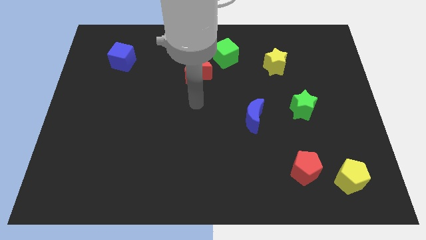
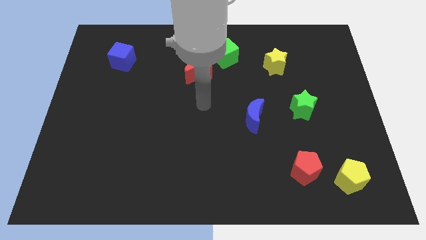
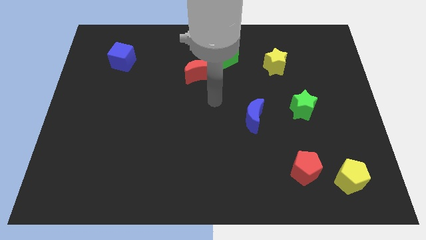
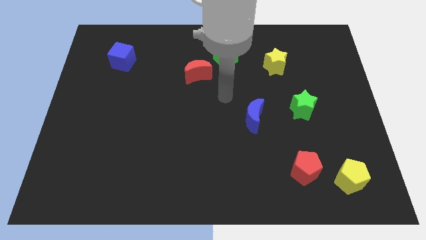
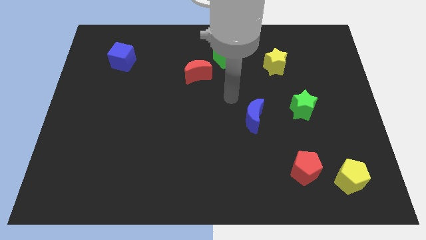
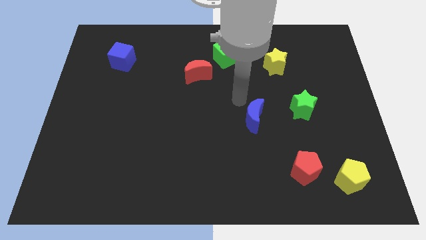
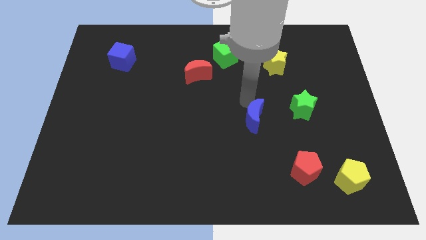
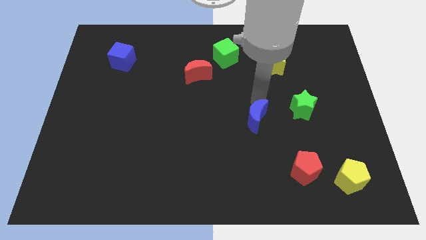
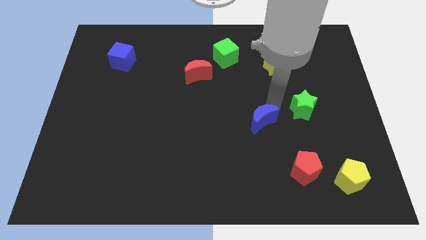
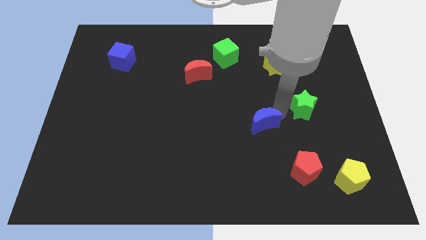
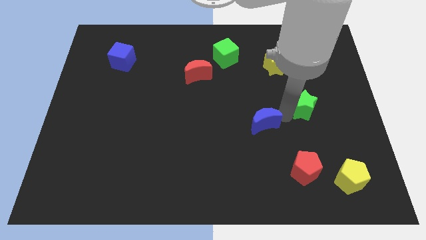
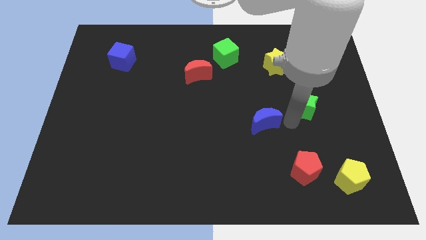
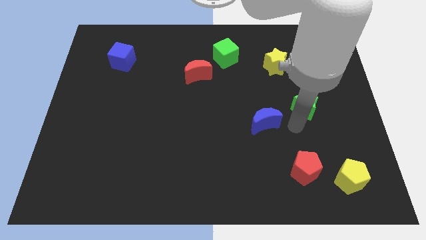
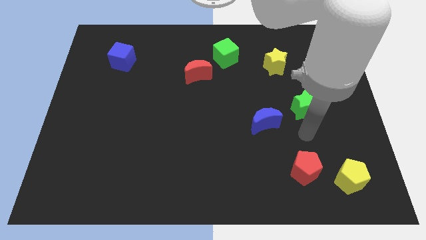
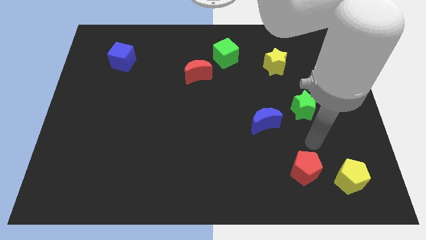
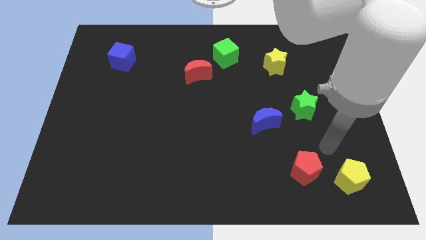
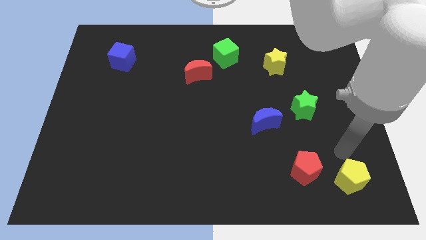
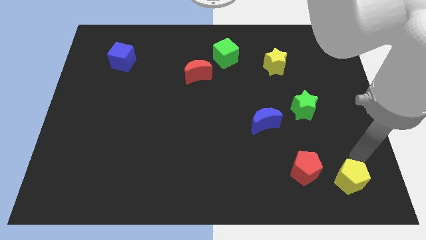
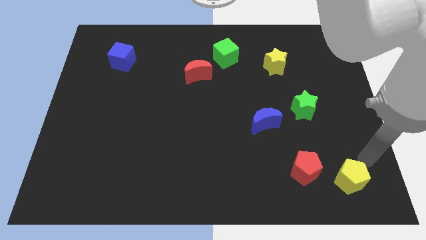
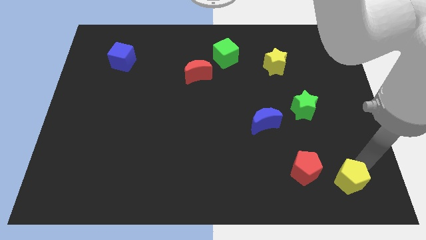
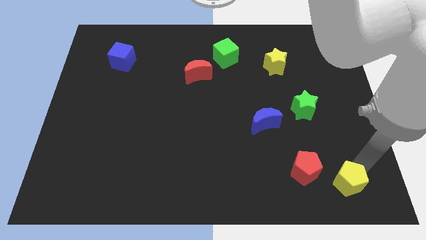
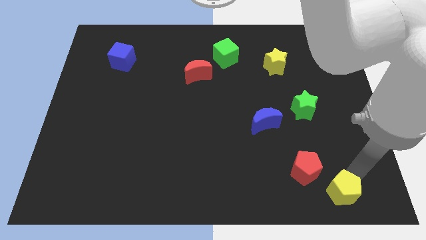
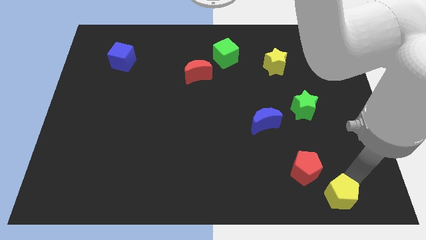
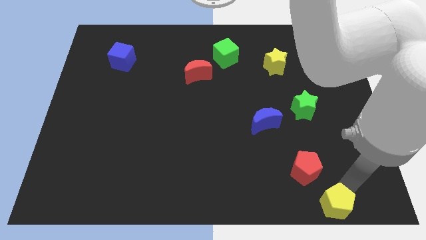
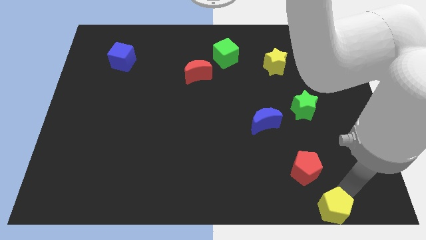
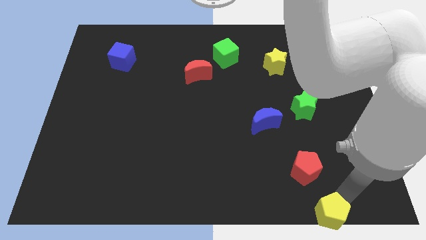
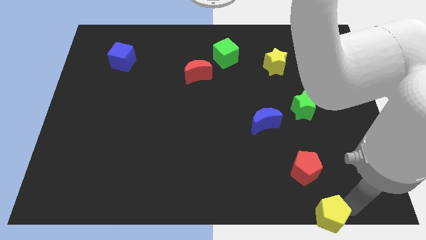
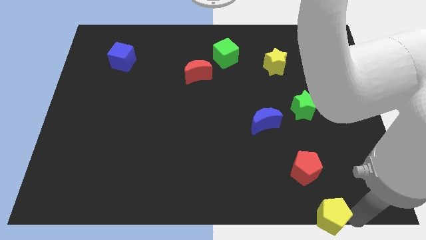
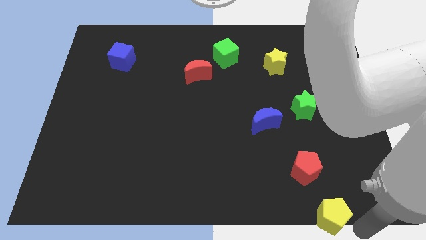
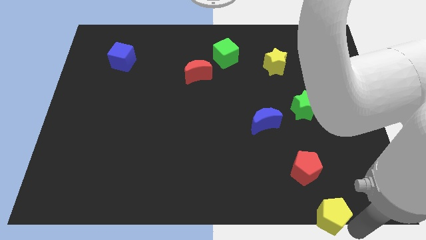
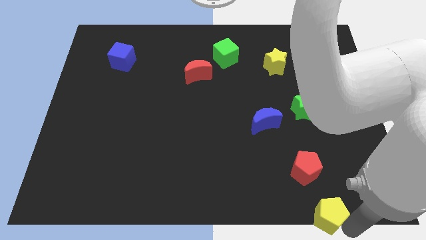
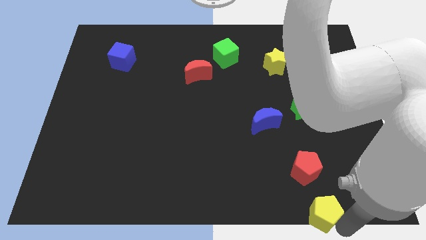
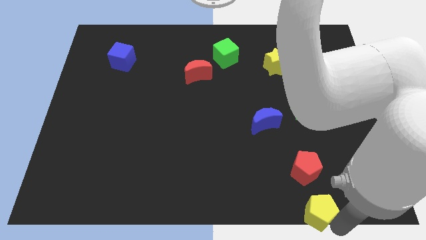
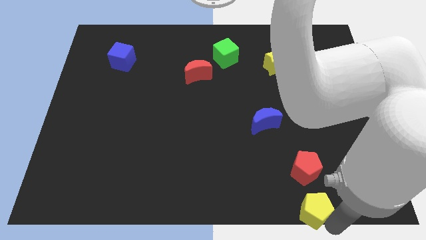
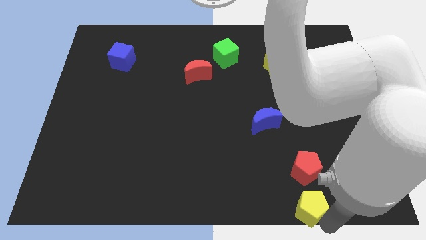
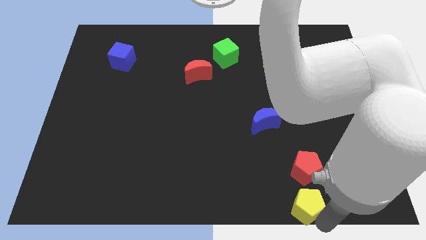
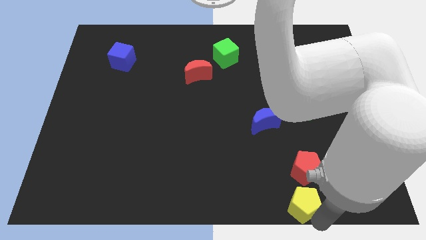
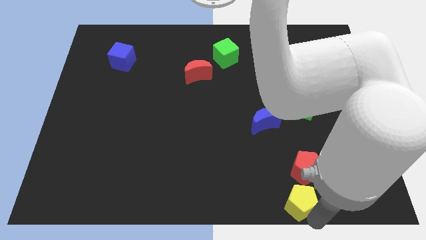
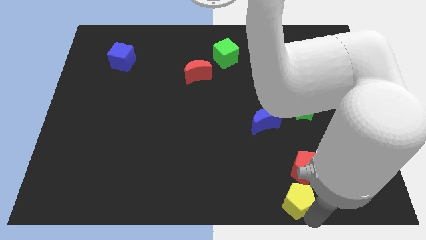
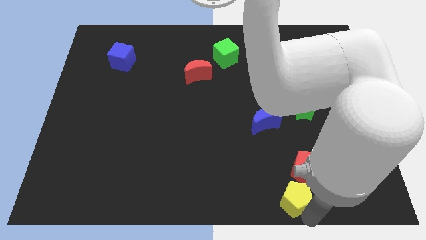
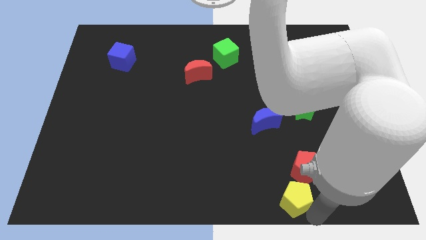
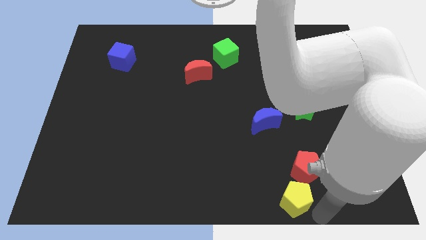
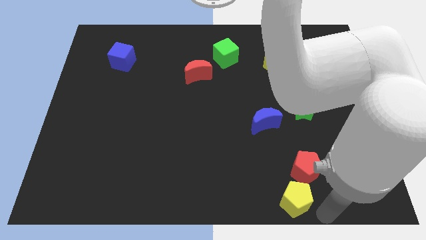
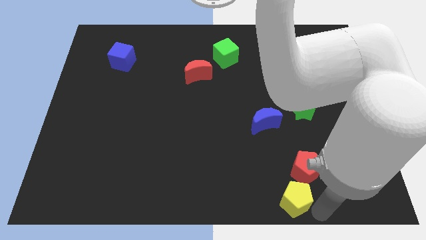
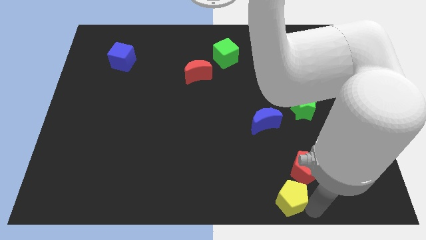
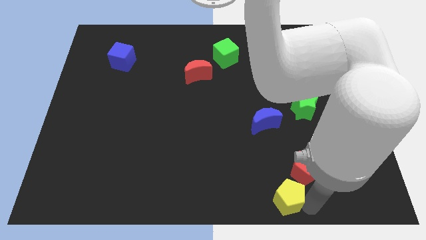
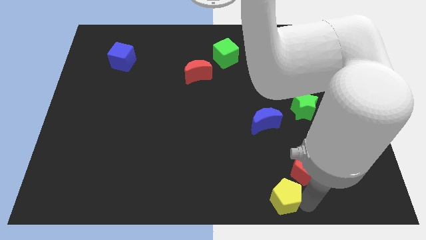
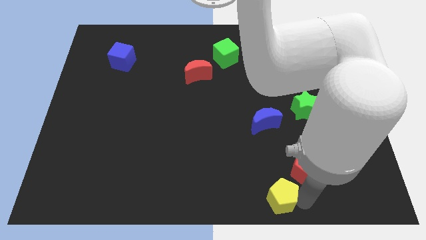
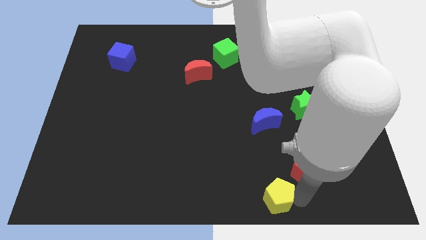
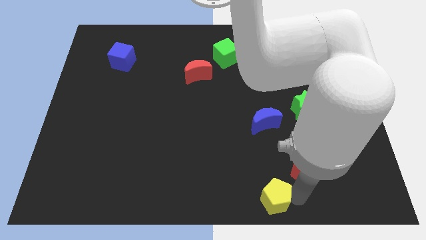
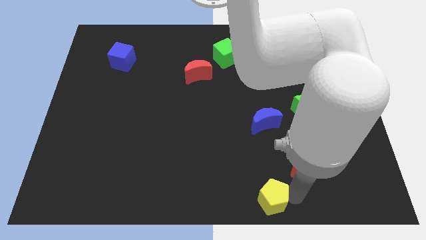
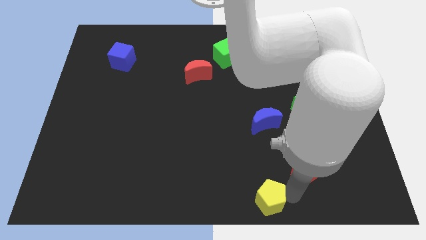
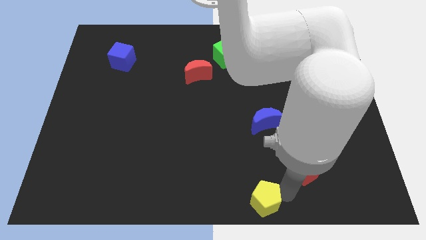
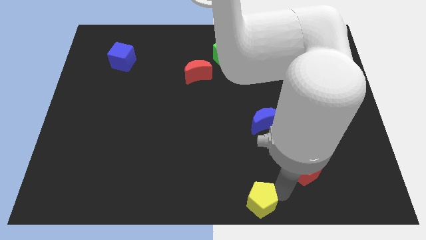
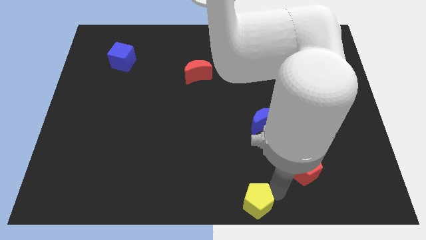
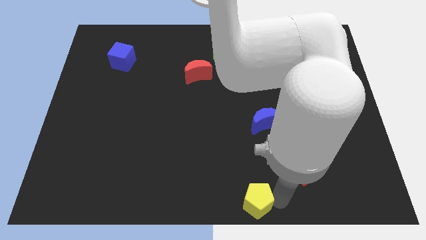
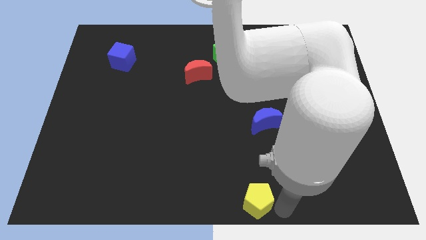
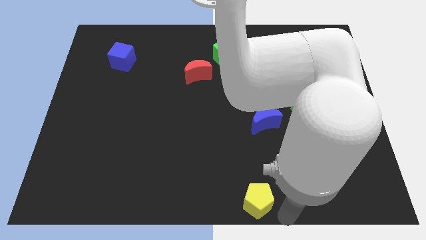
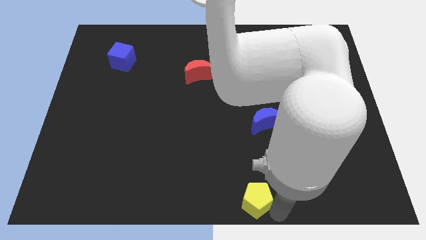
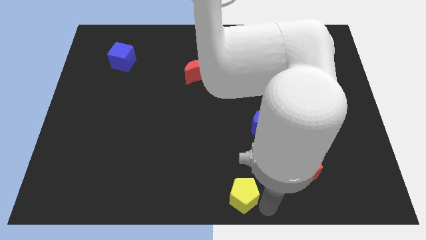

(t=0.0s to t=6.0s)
push the yellow pentagon left

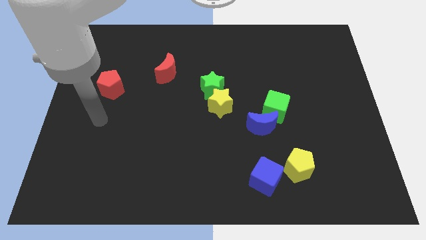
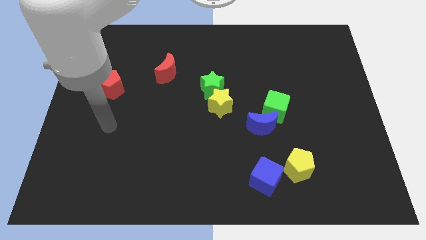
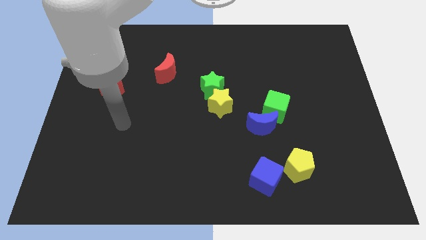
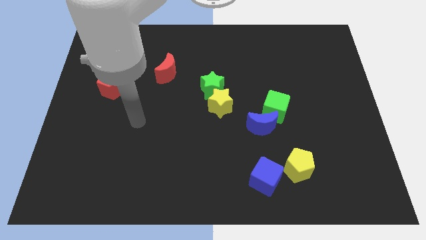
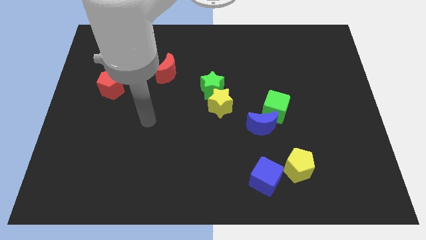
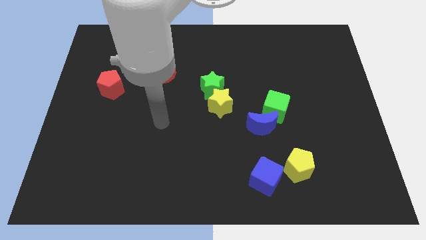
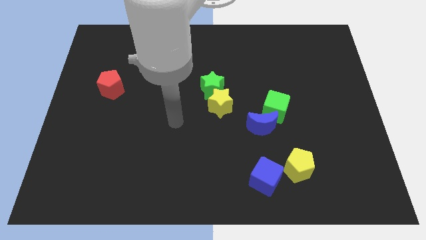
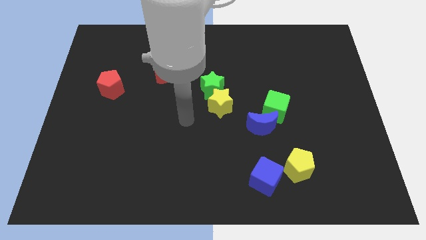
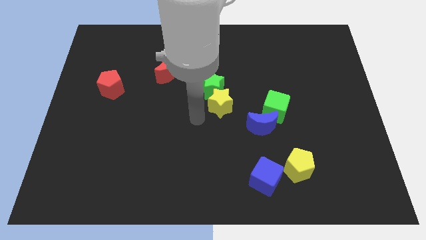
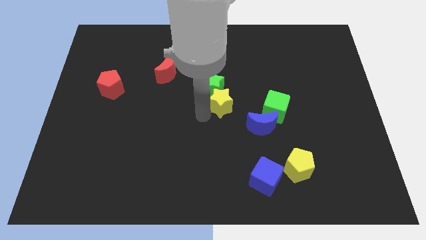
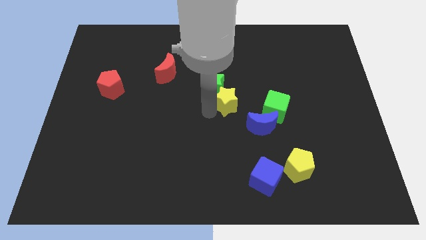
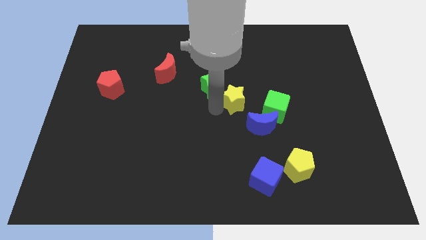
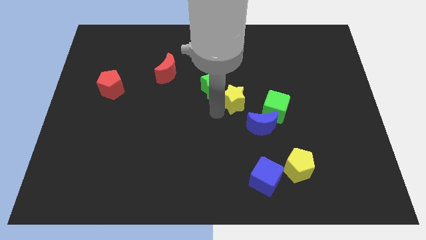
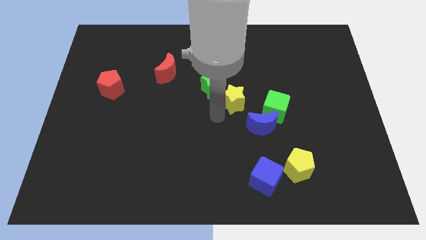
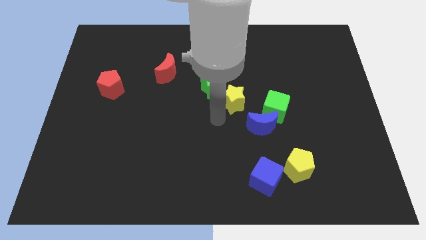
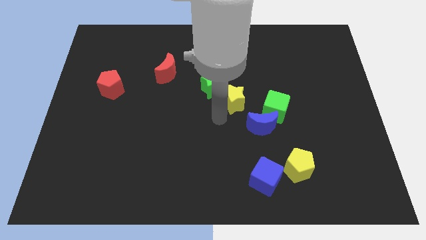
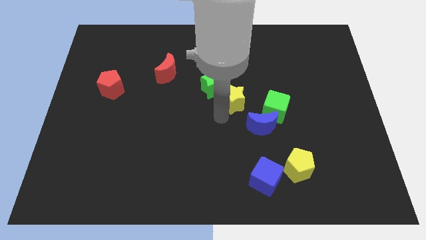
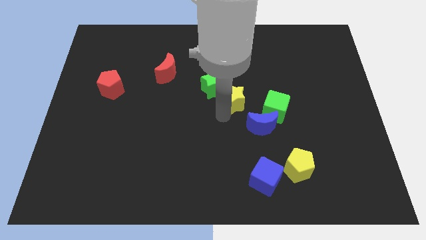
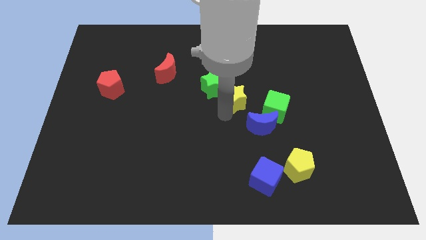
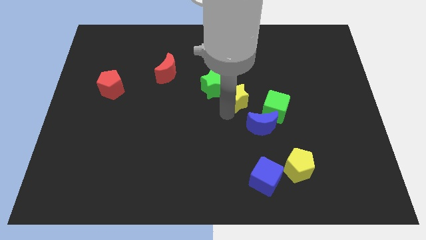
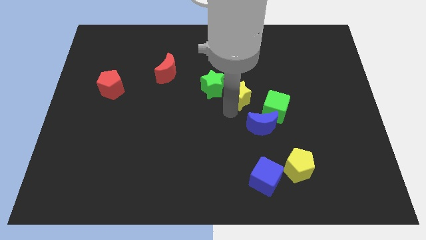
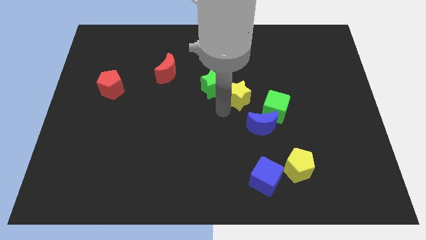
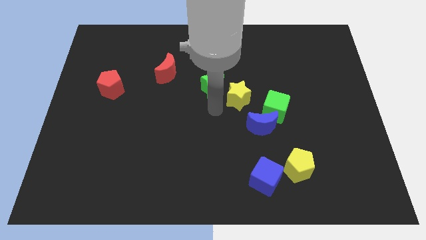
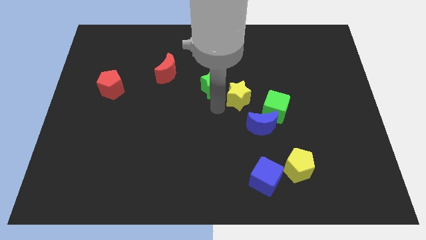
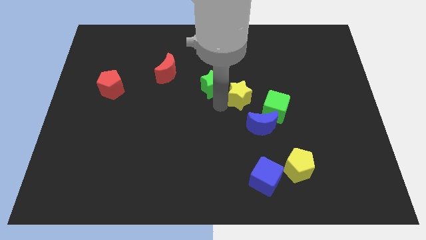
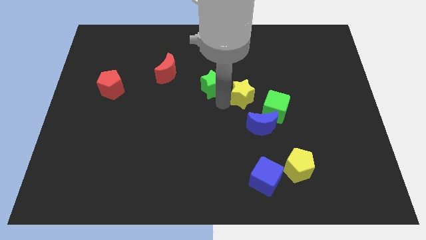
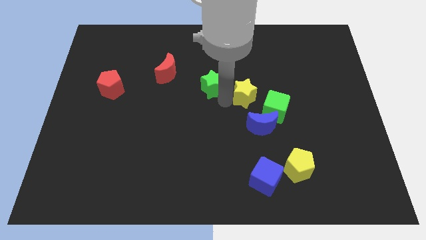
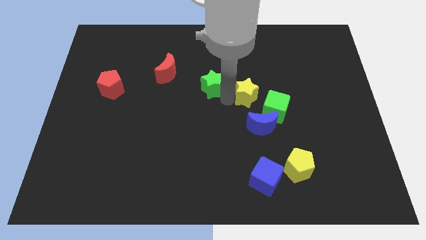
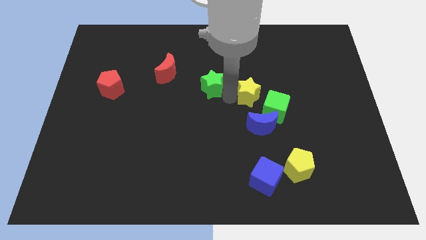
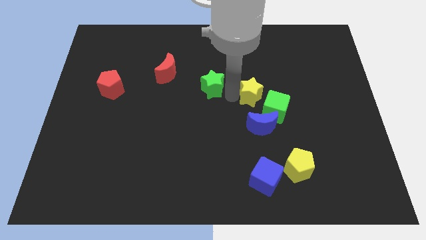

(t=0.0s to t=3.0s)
slide the yellow star up and to the right diagonally a little
